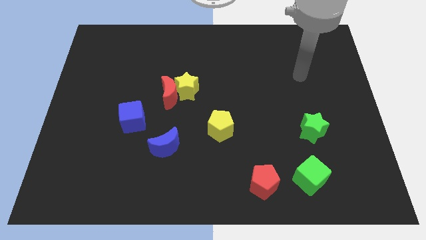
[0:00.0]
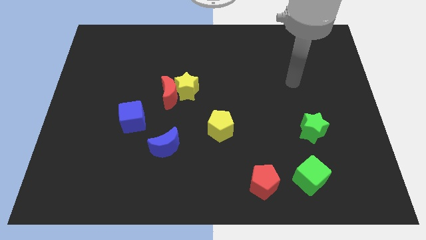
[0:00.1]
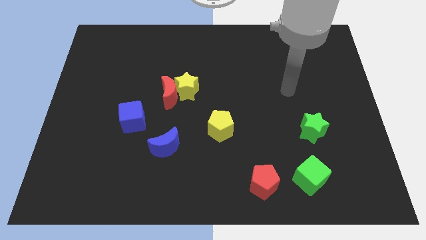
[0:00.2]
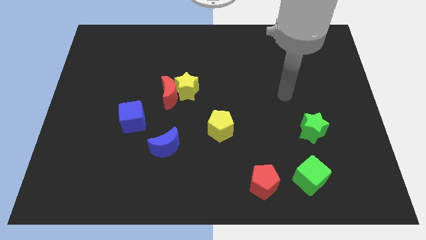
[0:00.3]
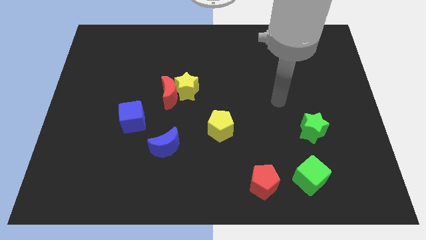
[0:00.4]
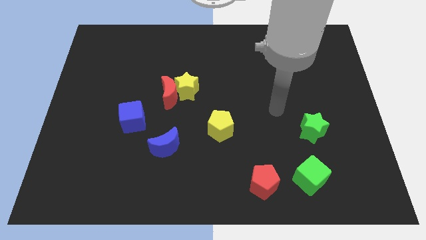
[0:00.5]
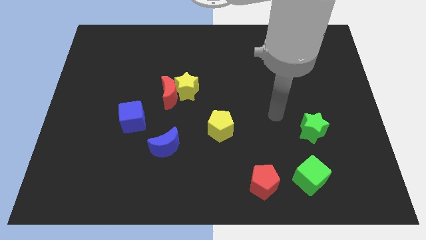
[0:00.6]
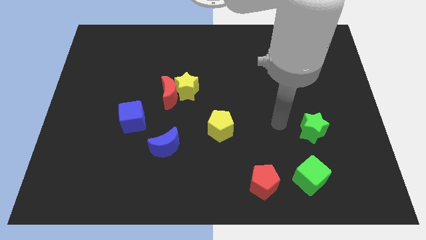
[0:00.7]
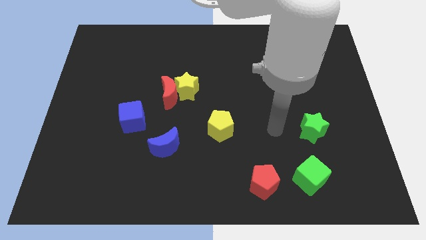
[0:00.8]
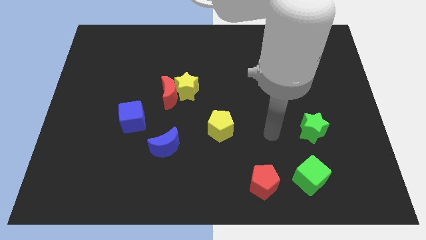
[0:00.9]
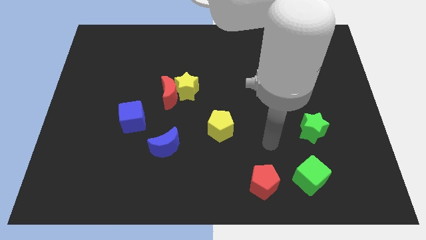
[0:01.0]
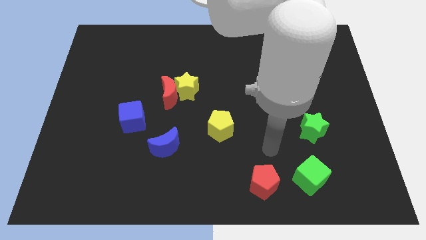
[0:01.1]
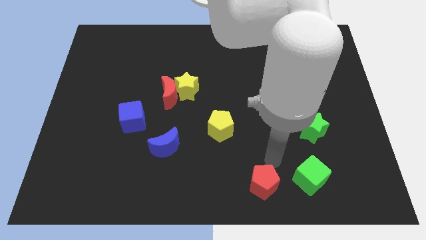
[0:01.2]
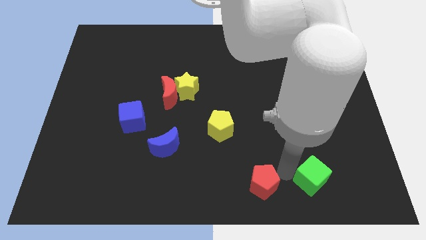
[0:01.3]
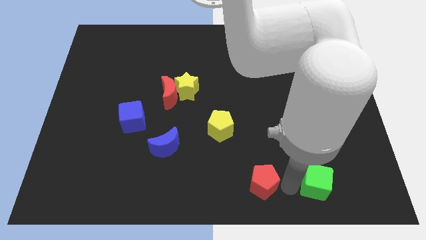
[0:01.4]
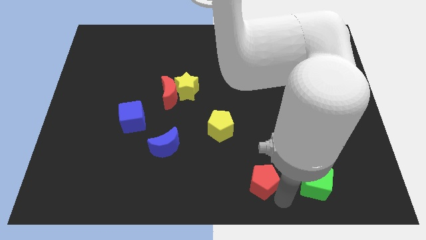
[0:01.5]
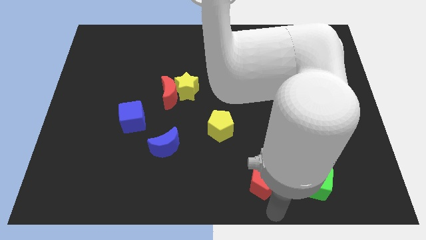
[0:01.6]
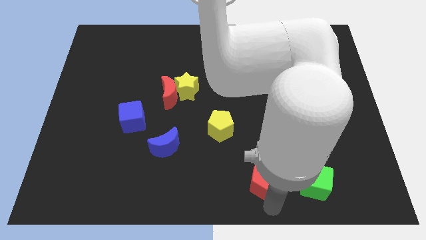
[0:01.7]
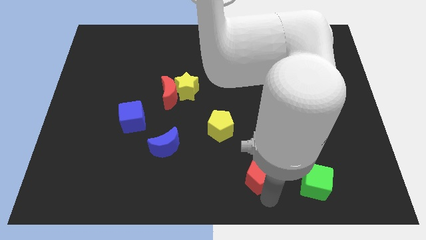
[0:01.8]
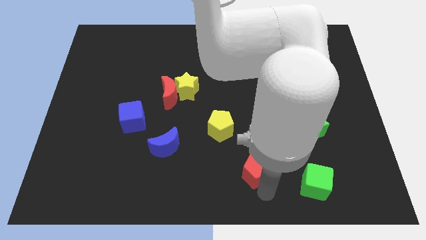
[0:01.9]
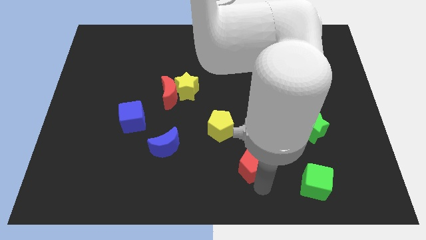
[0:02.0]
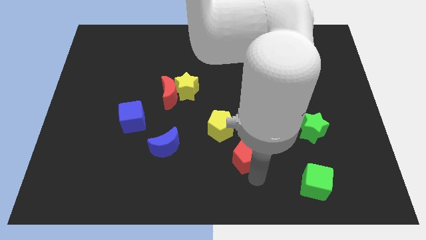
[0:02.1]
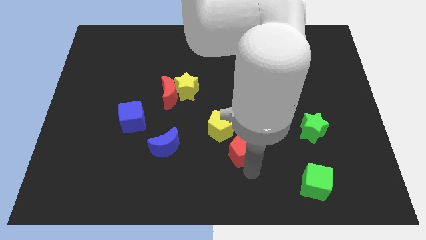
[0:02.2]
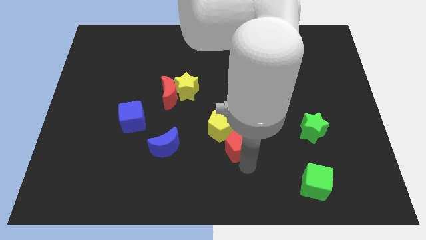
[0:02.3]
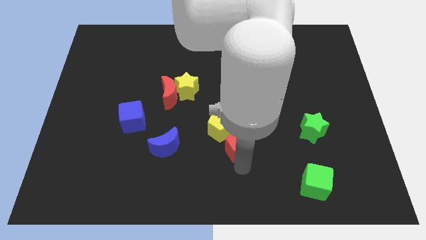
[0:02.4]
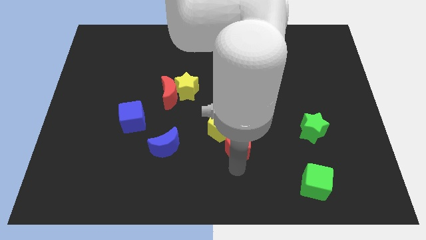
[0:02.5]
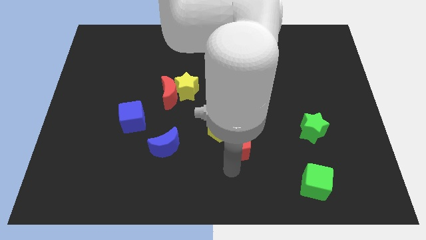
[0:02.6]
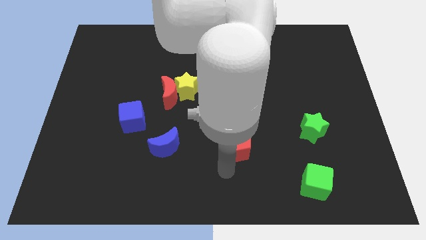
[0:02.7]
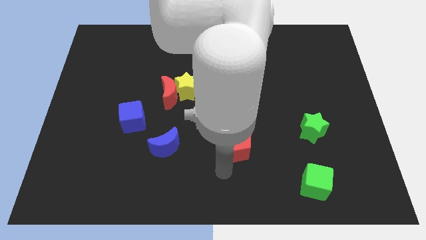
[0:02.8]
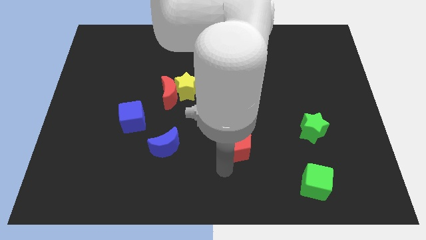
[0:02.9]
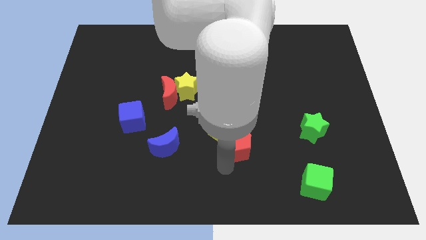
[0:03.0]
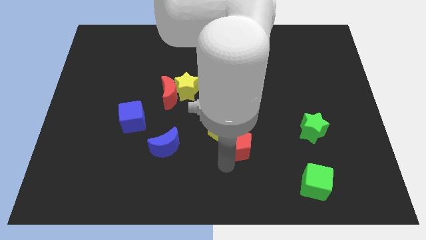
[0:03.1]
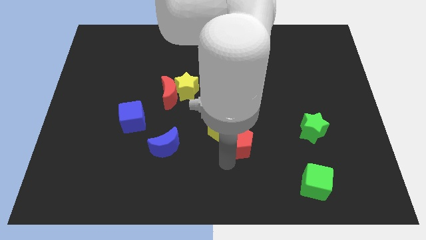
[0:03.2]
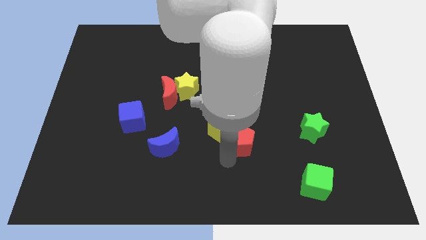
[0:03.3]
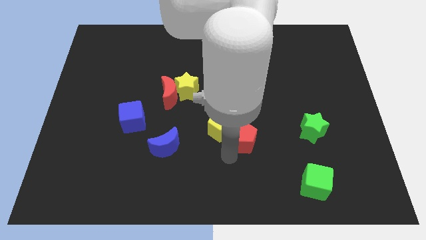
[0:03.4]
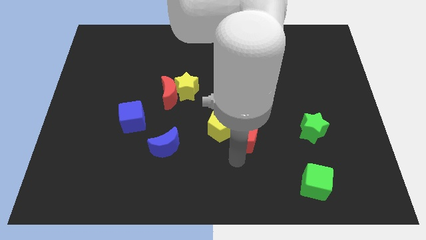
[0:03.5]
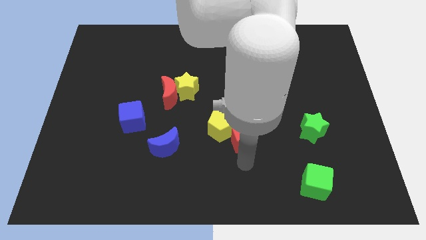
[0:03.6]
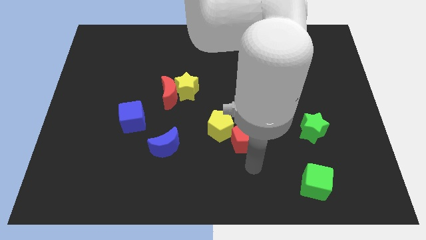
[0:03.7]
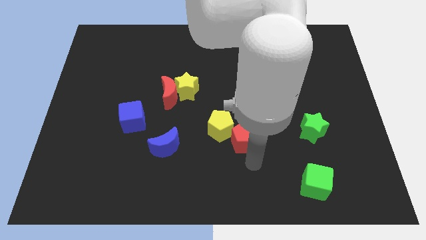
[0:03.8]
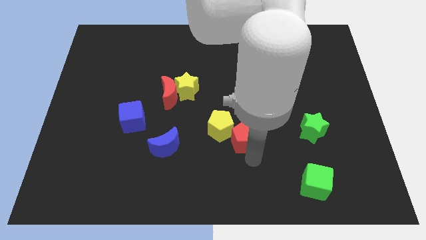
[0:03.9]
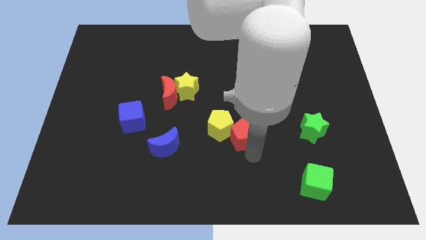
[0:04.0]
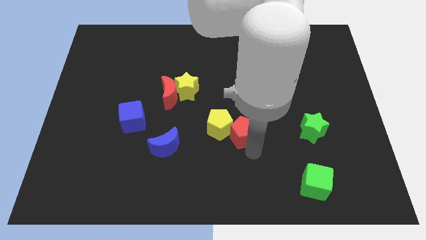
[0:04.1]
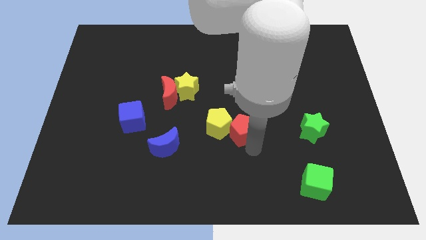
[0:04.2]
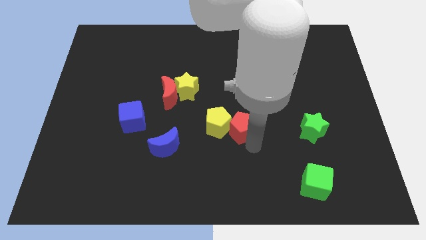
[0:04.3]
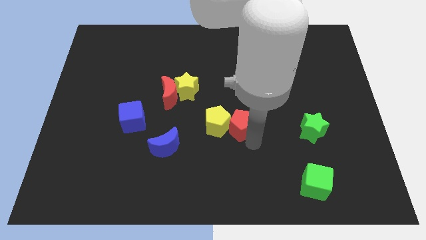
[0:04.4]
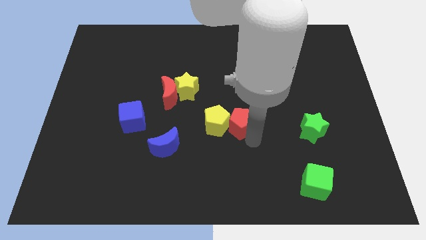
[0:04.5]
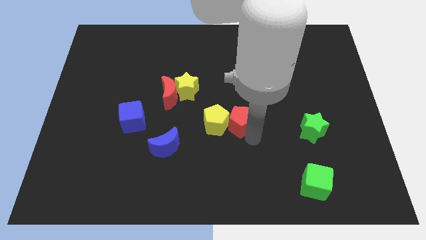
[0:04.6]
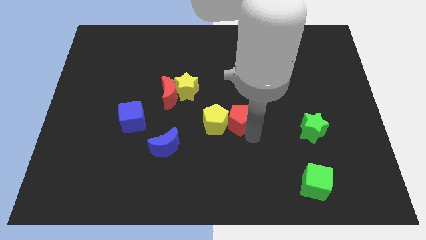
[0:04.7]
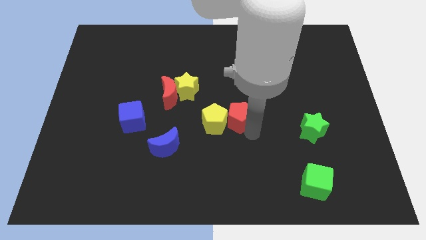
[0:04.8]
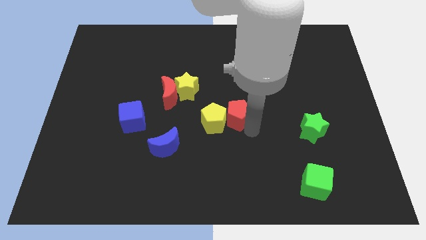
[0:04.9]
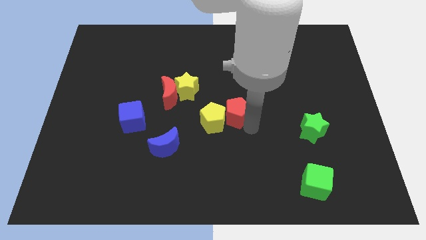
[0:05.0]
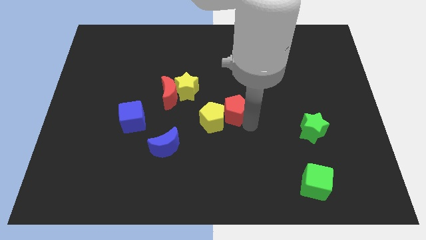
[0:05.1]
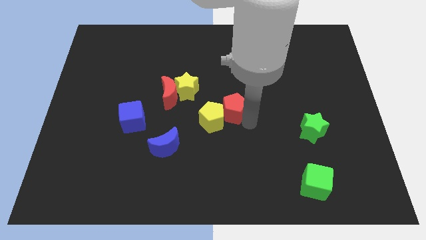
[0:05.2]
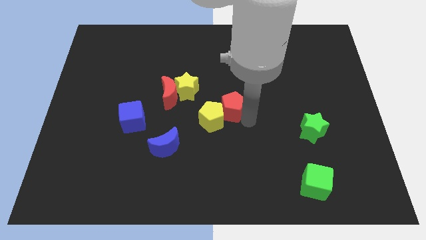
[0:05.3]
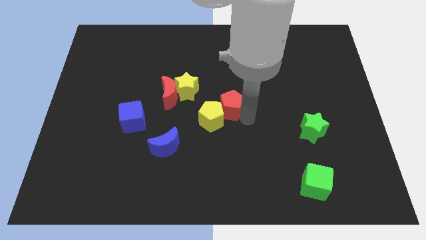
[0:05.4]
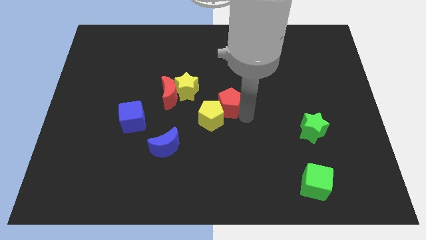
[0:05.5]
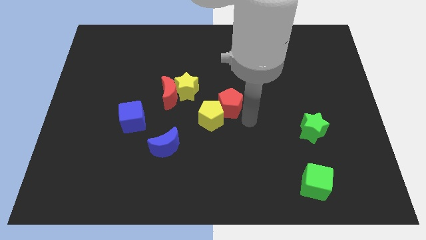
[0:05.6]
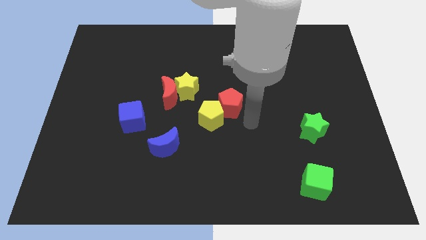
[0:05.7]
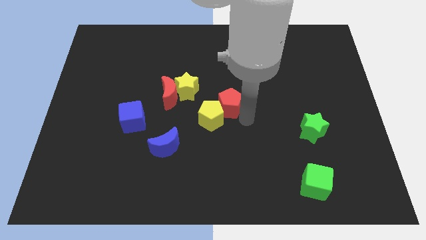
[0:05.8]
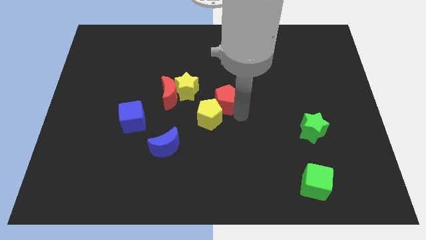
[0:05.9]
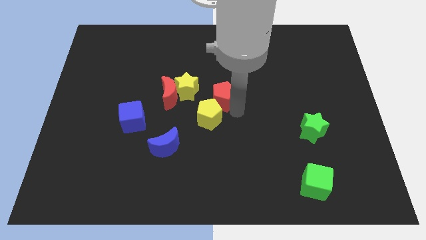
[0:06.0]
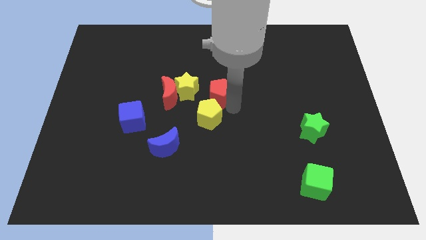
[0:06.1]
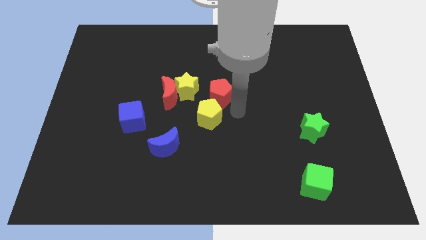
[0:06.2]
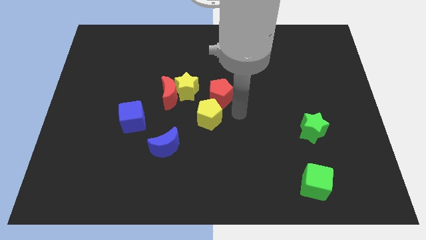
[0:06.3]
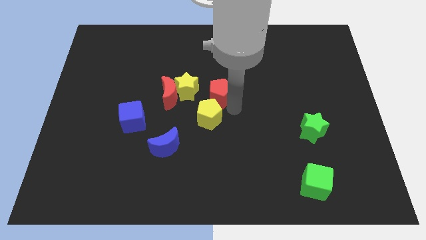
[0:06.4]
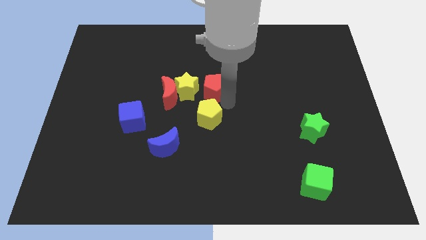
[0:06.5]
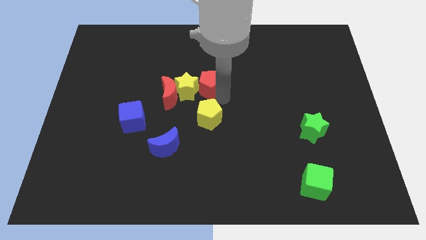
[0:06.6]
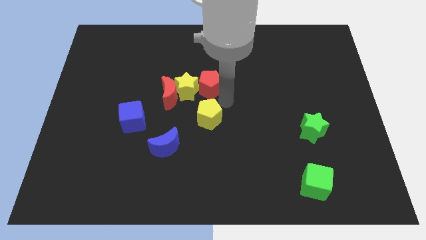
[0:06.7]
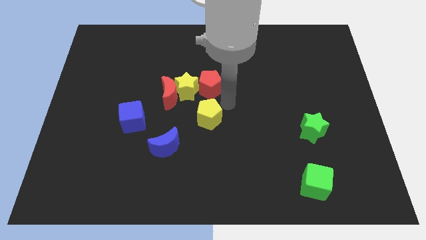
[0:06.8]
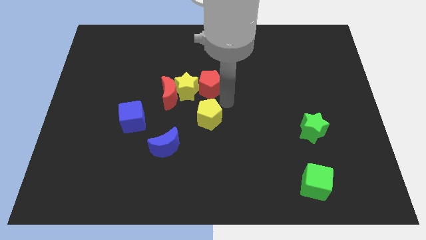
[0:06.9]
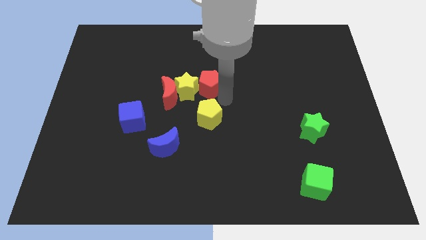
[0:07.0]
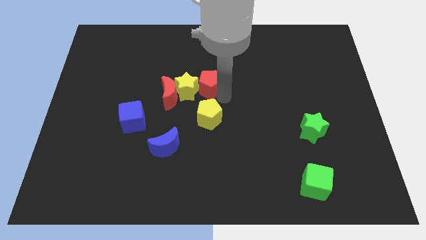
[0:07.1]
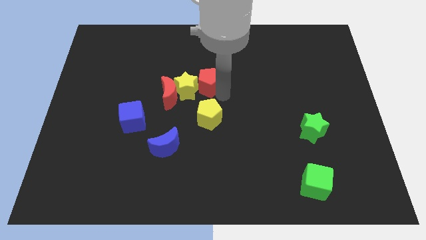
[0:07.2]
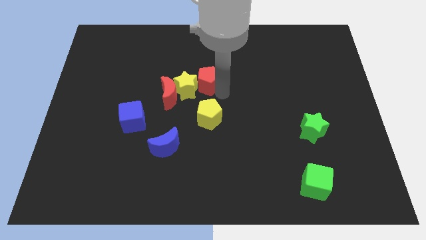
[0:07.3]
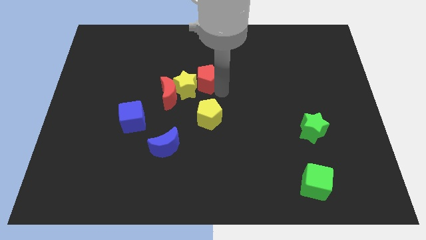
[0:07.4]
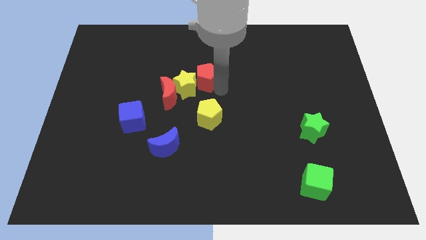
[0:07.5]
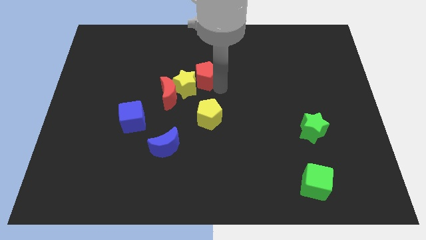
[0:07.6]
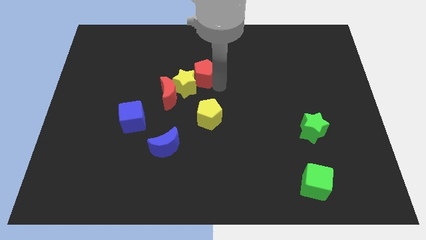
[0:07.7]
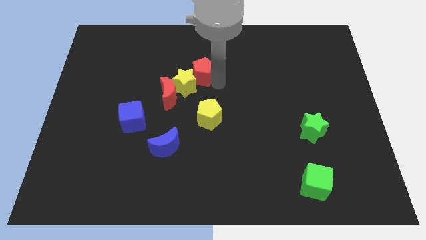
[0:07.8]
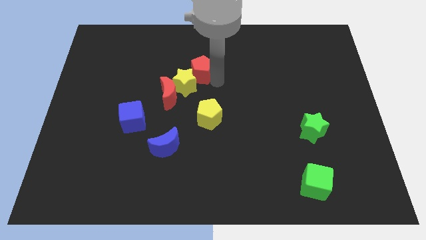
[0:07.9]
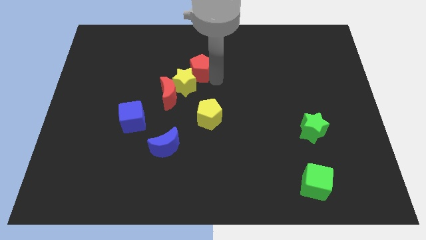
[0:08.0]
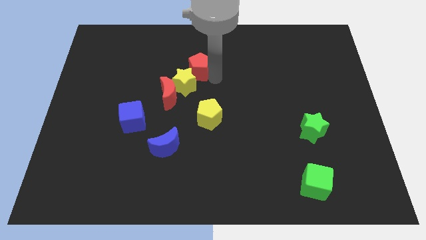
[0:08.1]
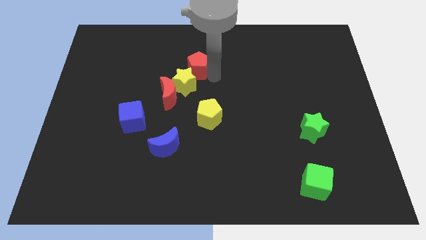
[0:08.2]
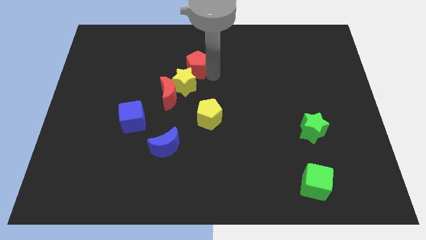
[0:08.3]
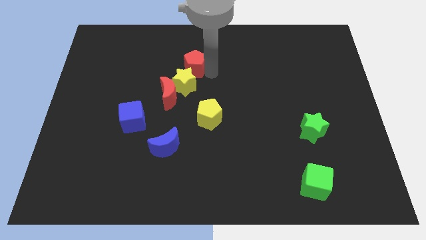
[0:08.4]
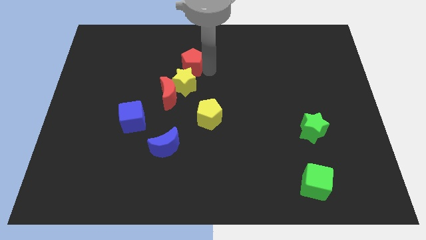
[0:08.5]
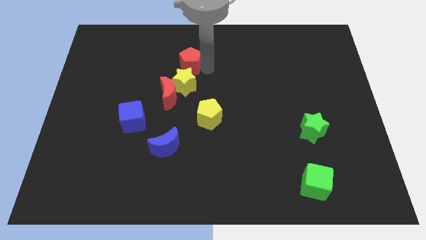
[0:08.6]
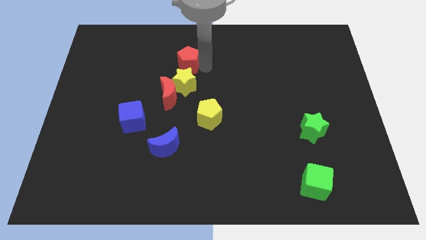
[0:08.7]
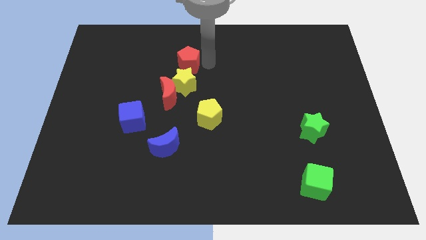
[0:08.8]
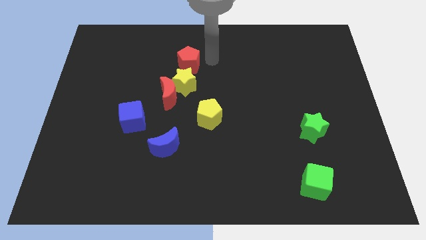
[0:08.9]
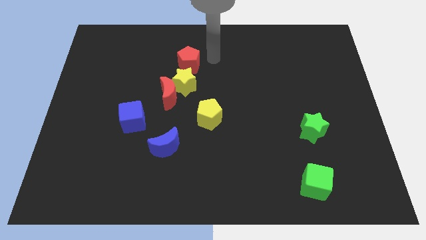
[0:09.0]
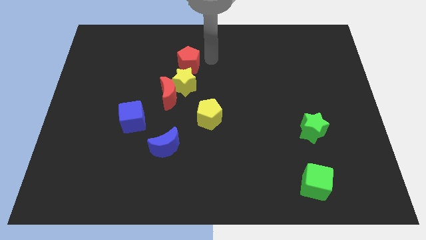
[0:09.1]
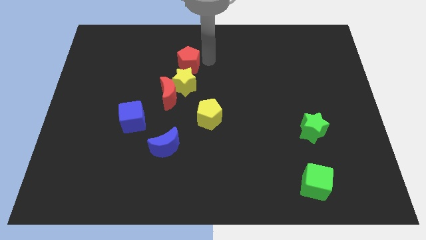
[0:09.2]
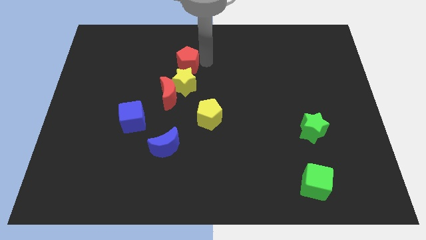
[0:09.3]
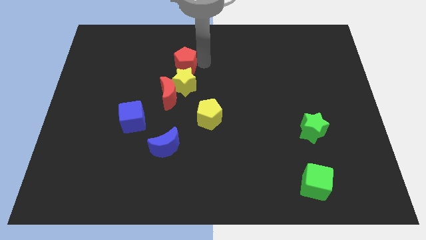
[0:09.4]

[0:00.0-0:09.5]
push the red pentagon diagonally up and to the left of the yellow star
